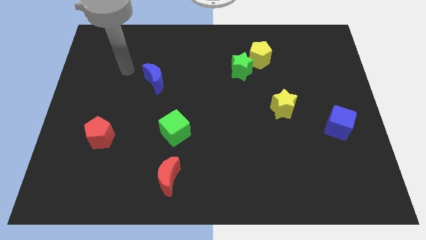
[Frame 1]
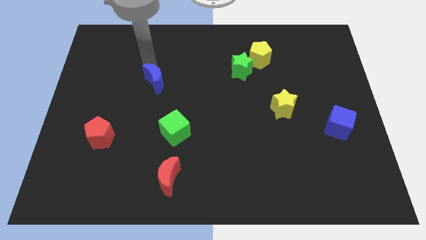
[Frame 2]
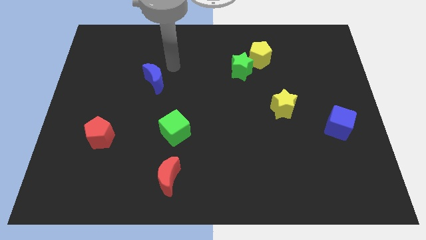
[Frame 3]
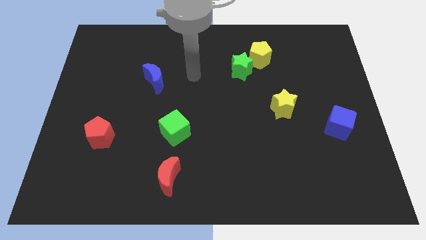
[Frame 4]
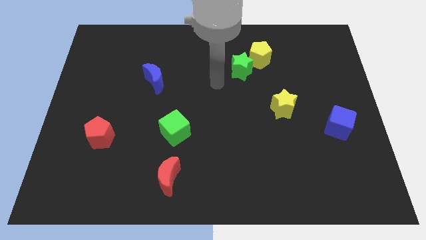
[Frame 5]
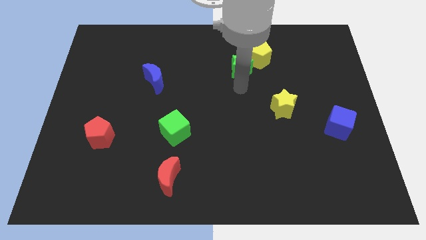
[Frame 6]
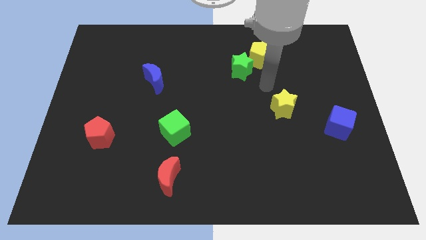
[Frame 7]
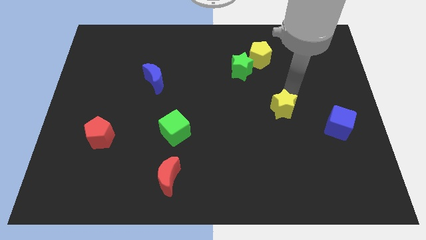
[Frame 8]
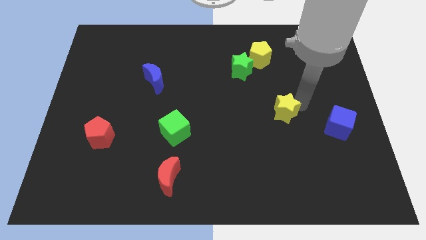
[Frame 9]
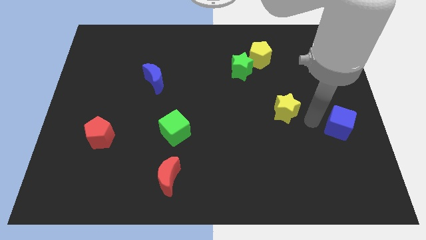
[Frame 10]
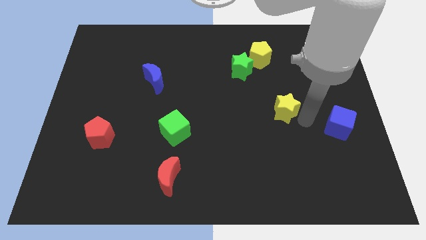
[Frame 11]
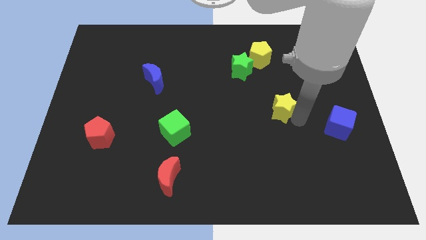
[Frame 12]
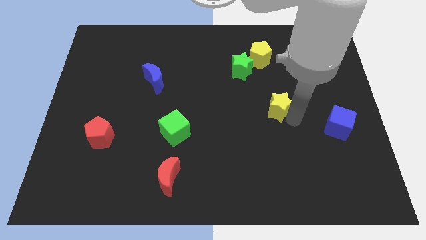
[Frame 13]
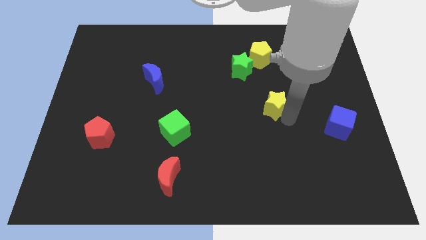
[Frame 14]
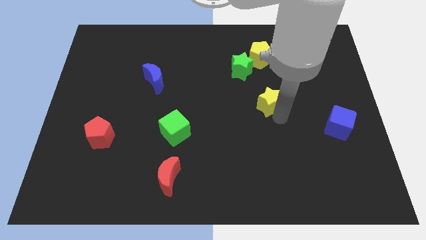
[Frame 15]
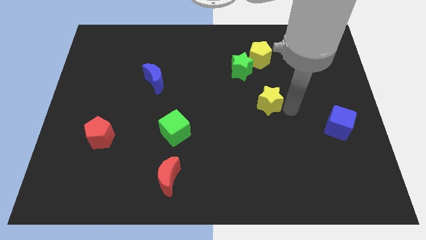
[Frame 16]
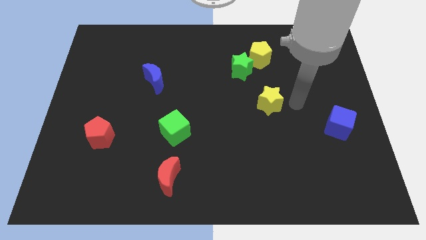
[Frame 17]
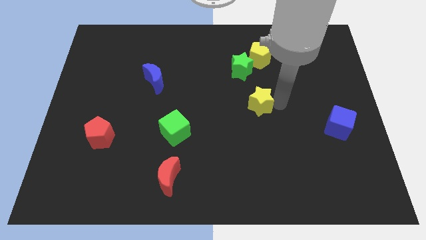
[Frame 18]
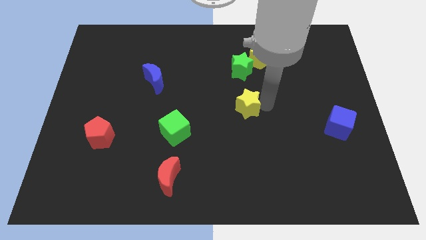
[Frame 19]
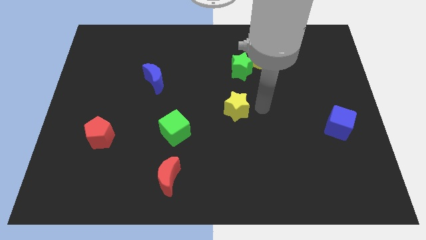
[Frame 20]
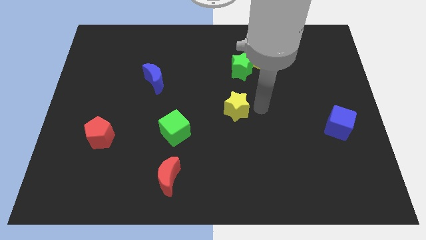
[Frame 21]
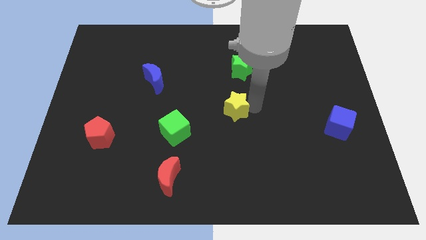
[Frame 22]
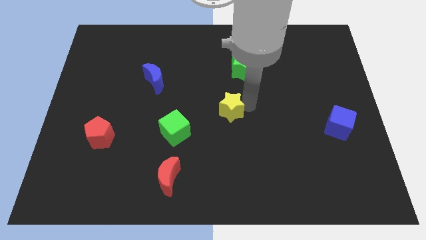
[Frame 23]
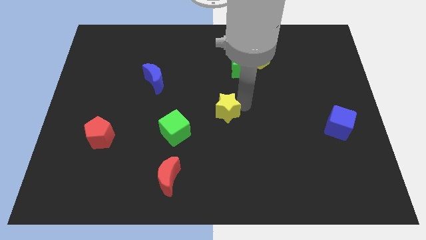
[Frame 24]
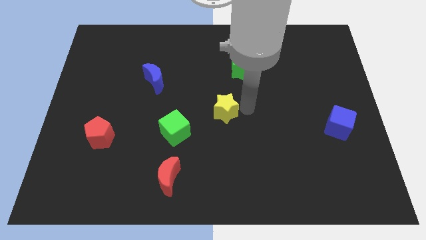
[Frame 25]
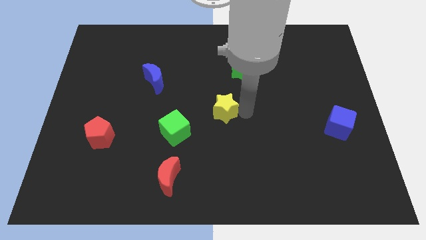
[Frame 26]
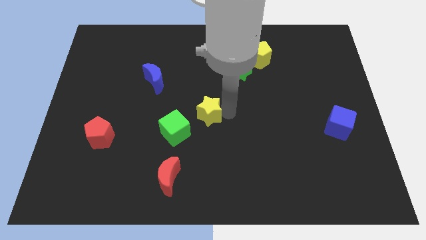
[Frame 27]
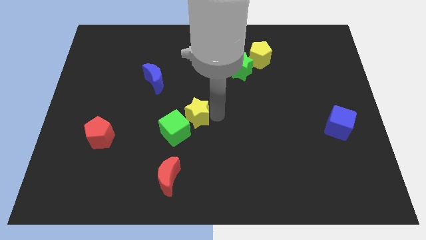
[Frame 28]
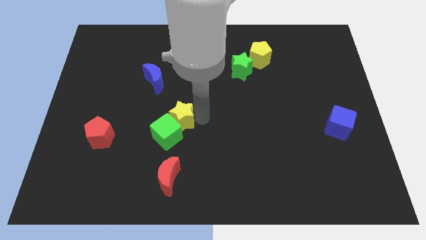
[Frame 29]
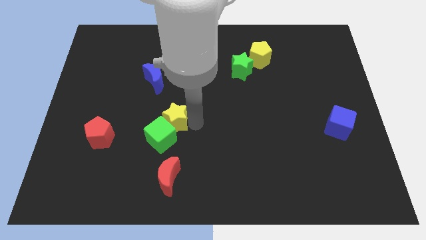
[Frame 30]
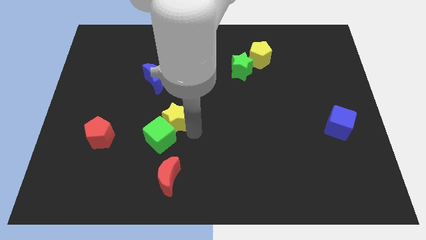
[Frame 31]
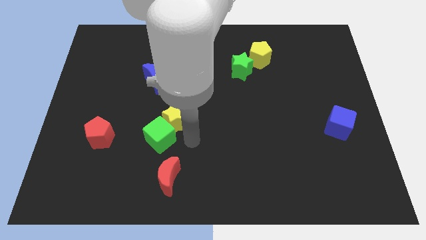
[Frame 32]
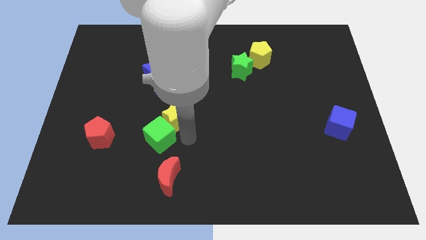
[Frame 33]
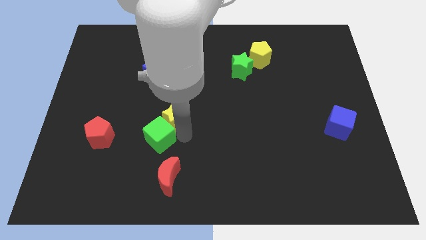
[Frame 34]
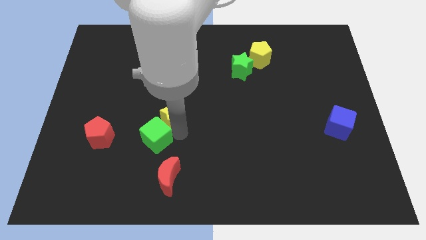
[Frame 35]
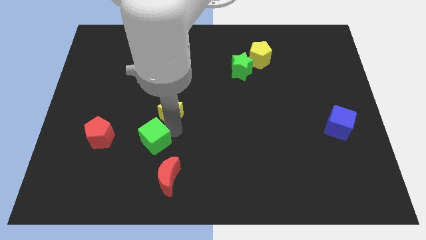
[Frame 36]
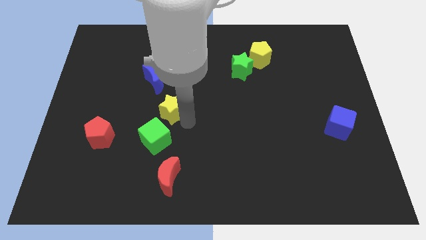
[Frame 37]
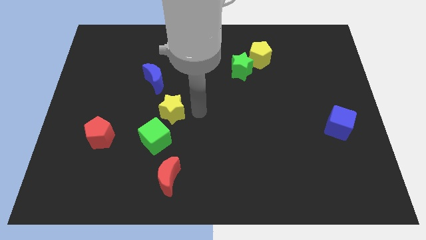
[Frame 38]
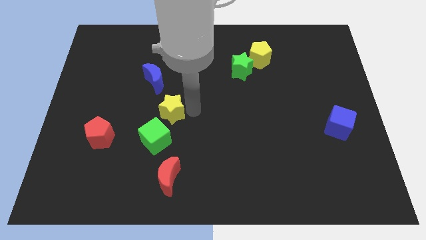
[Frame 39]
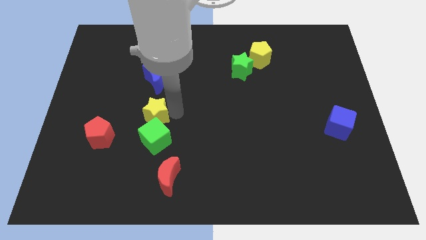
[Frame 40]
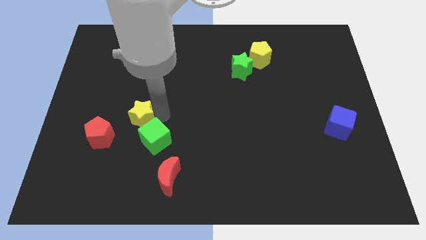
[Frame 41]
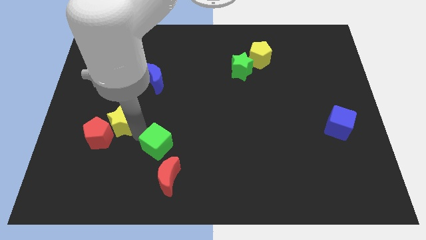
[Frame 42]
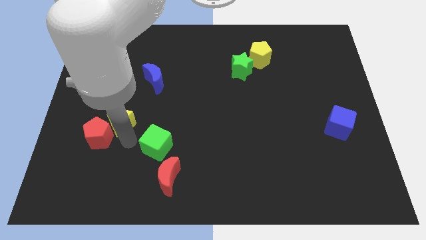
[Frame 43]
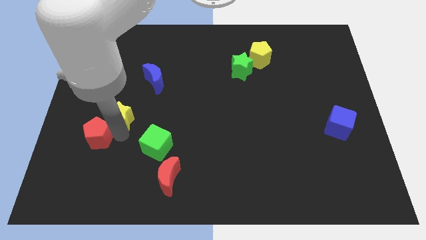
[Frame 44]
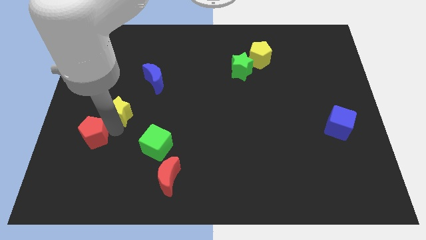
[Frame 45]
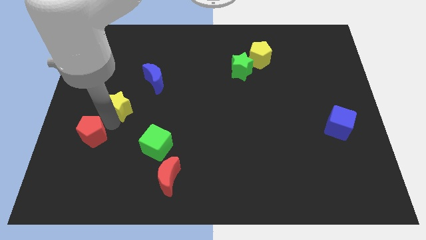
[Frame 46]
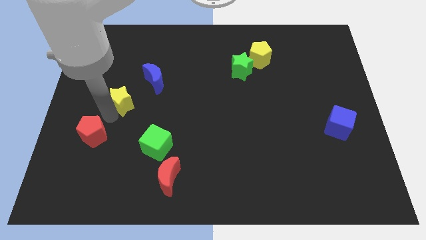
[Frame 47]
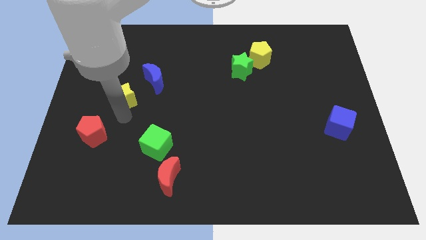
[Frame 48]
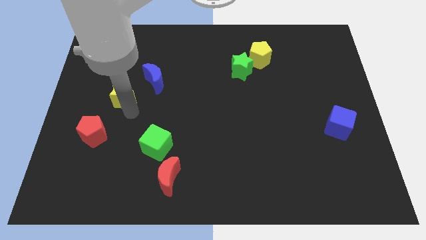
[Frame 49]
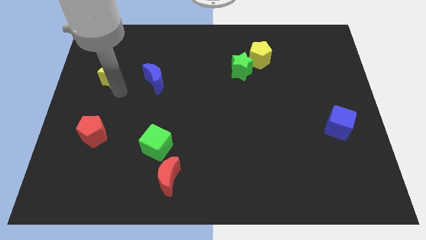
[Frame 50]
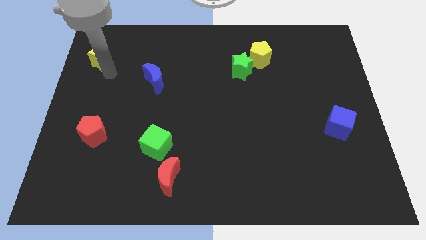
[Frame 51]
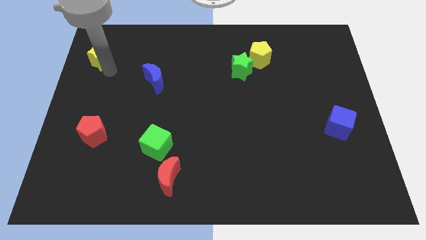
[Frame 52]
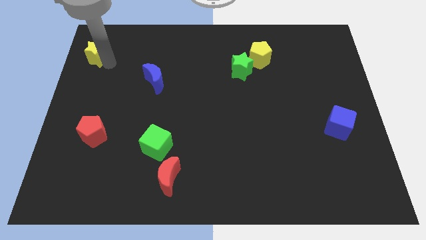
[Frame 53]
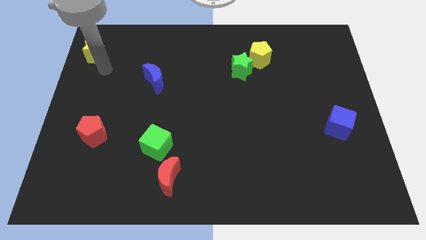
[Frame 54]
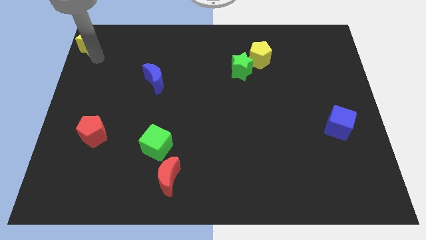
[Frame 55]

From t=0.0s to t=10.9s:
move the yellow star to the upper left corner

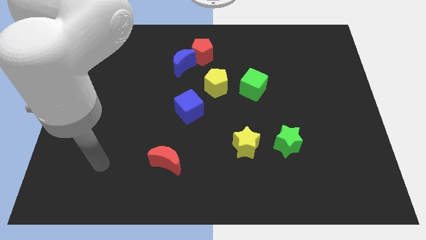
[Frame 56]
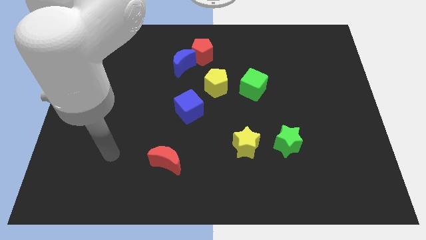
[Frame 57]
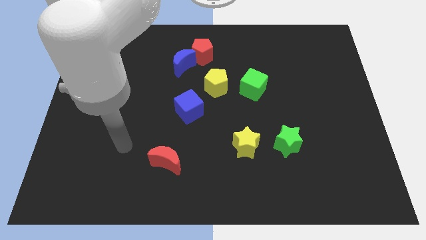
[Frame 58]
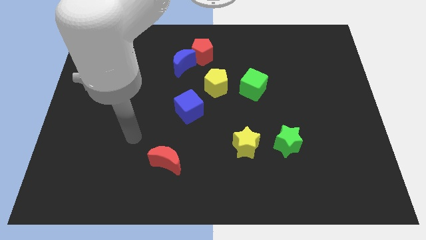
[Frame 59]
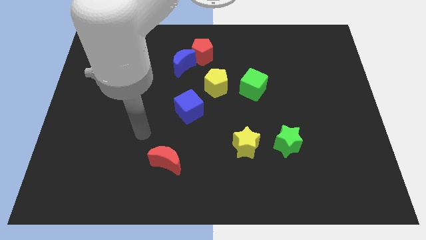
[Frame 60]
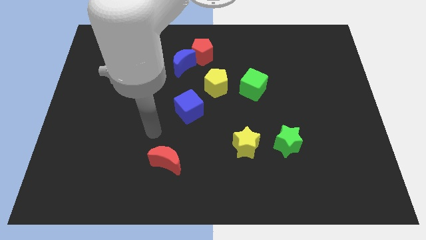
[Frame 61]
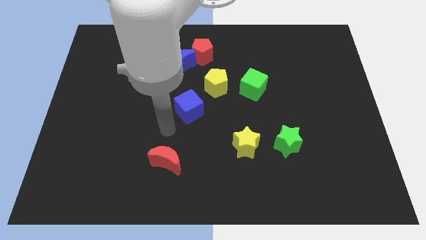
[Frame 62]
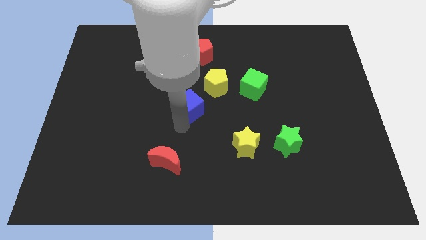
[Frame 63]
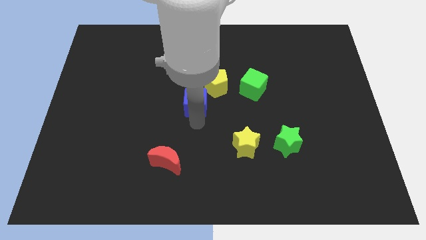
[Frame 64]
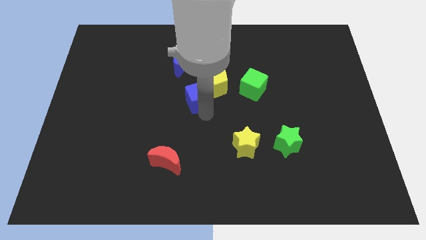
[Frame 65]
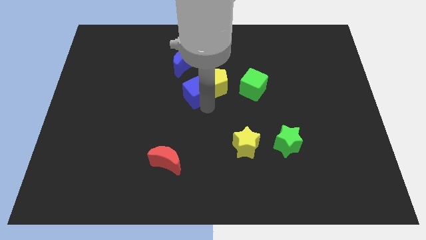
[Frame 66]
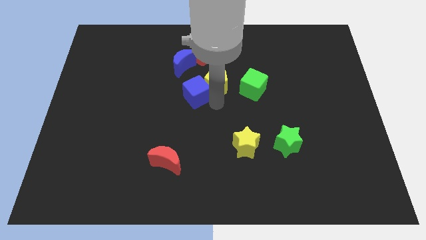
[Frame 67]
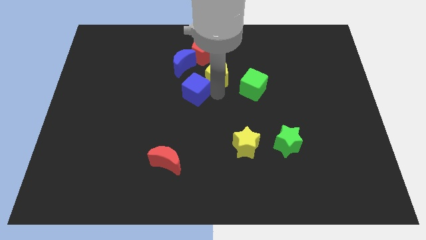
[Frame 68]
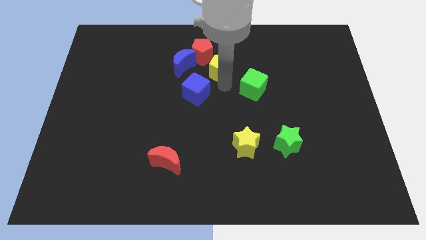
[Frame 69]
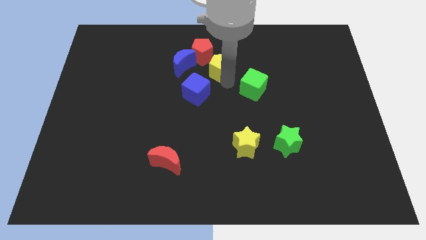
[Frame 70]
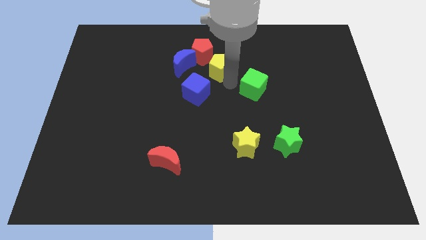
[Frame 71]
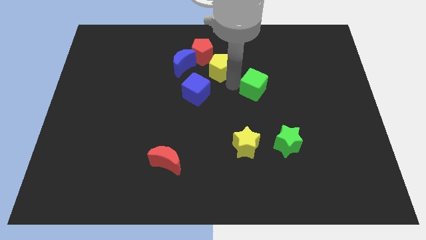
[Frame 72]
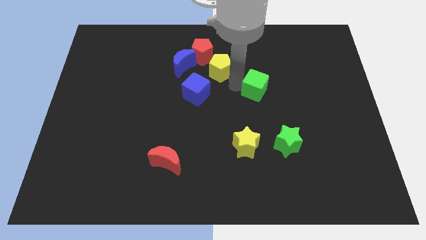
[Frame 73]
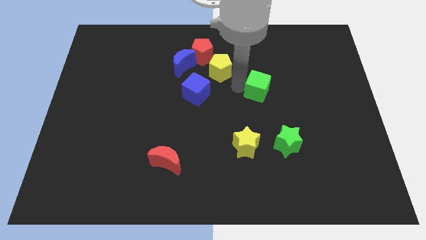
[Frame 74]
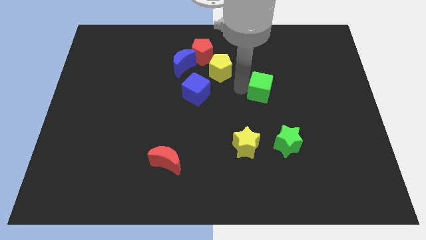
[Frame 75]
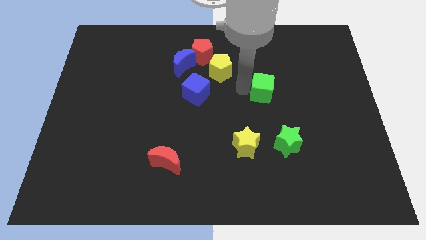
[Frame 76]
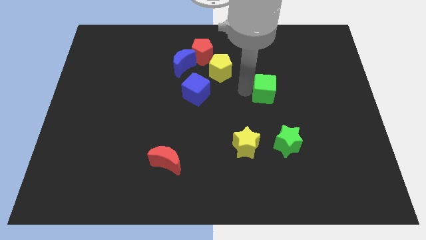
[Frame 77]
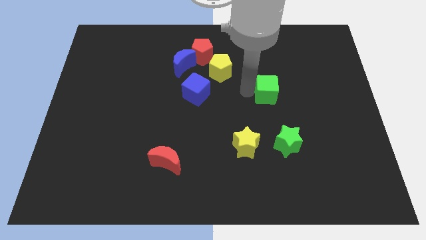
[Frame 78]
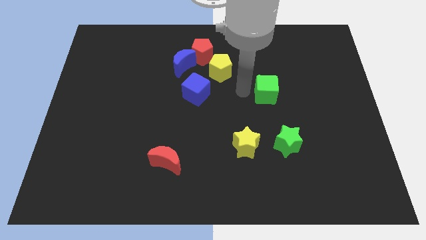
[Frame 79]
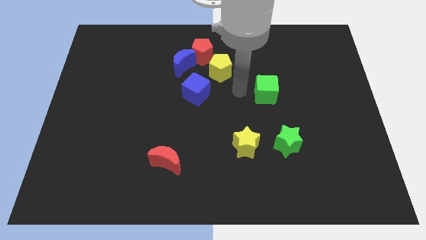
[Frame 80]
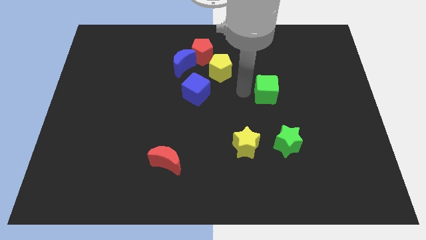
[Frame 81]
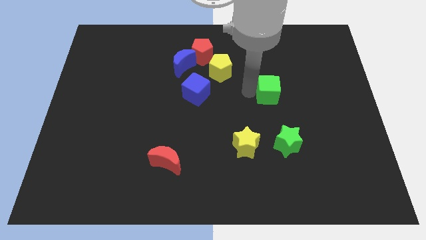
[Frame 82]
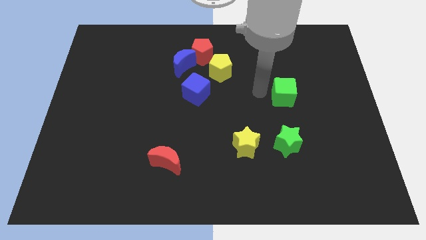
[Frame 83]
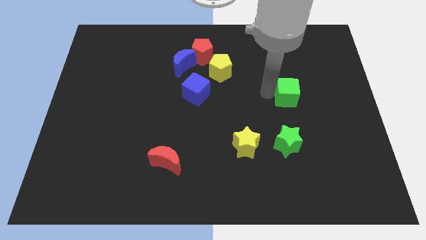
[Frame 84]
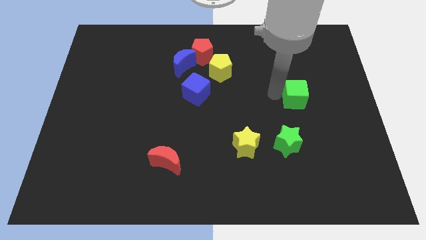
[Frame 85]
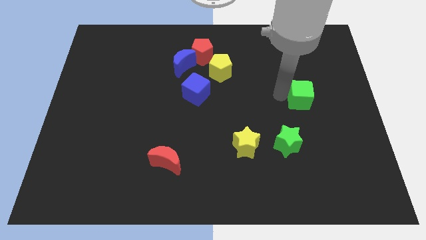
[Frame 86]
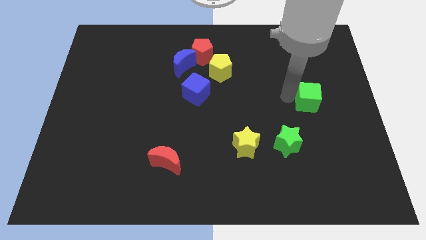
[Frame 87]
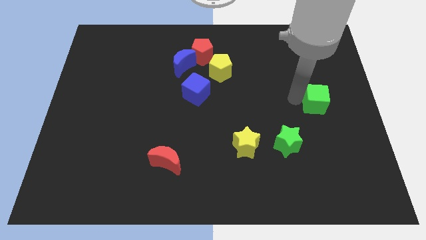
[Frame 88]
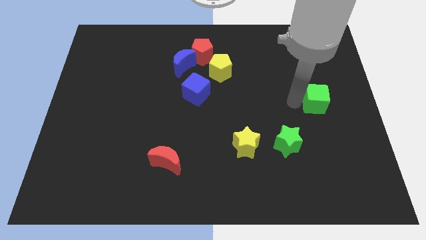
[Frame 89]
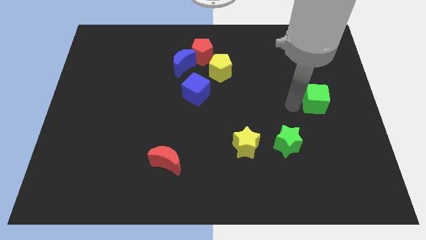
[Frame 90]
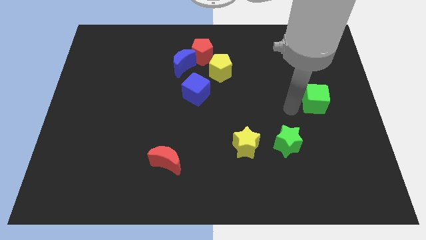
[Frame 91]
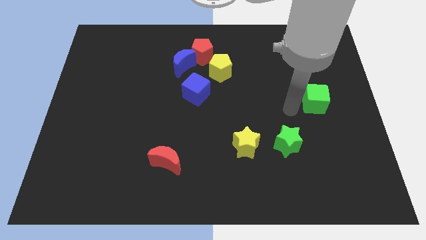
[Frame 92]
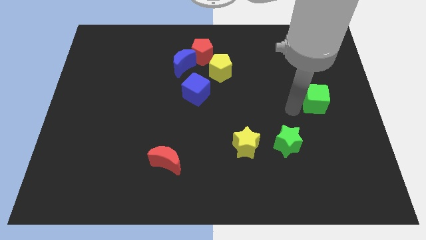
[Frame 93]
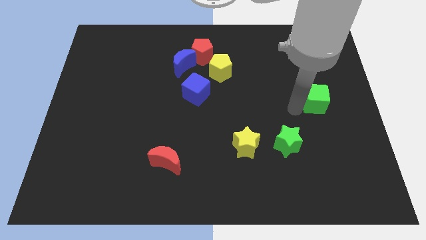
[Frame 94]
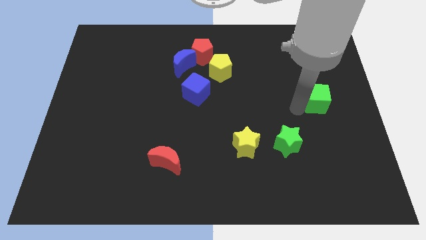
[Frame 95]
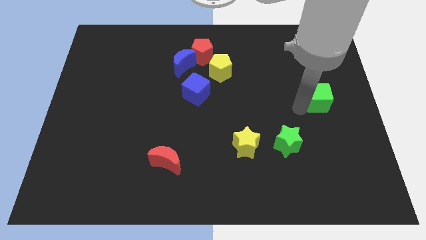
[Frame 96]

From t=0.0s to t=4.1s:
push the green cube to the center right
